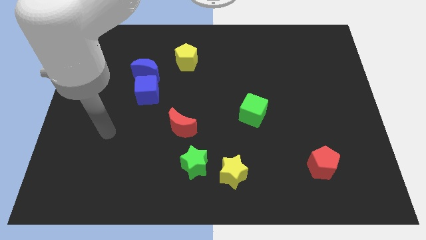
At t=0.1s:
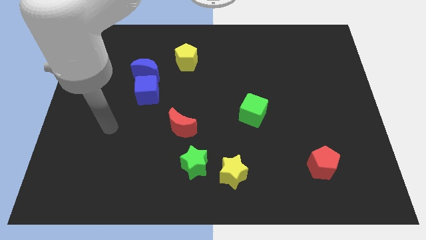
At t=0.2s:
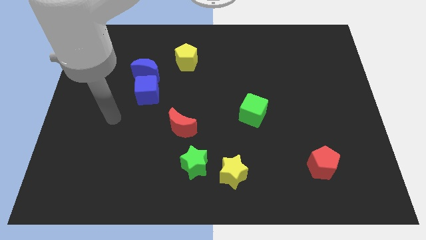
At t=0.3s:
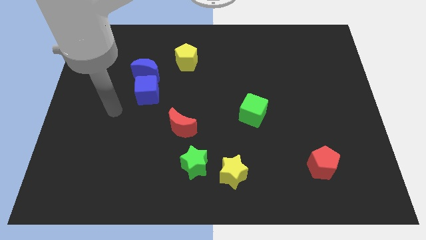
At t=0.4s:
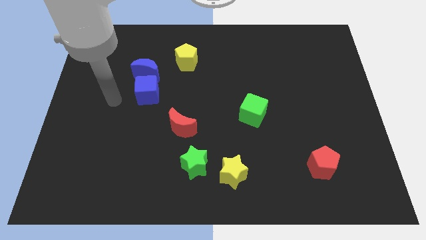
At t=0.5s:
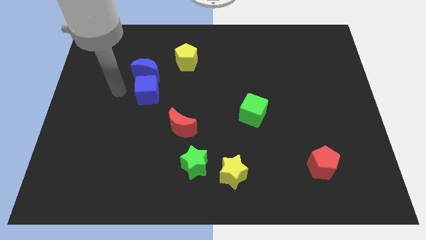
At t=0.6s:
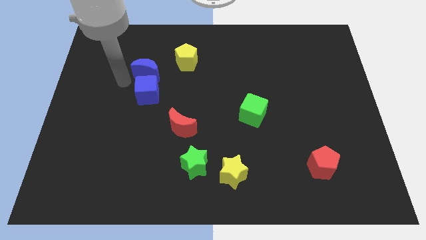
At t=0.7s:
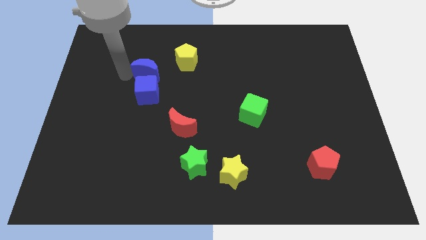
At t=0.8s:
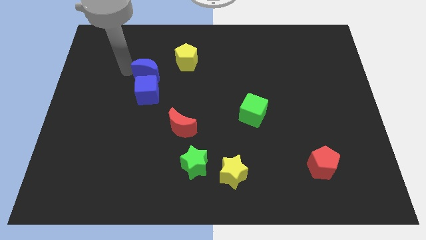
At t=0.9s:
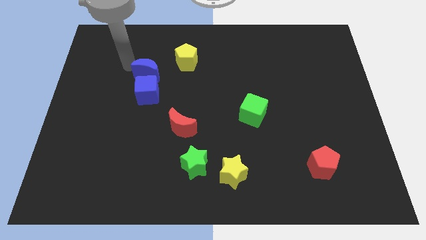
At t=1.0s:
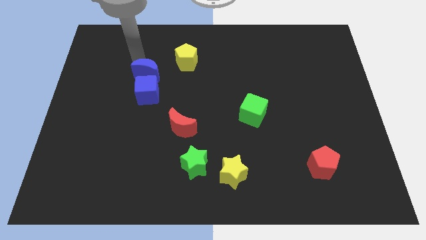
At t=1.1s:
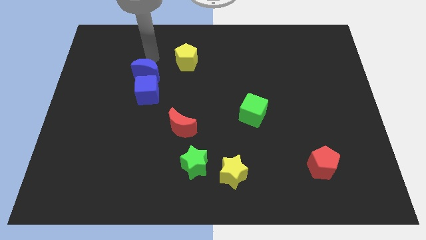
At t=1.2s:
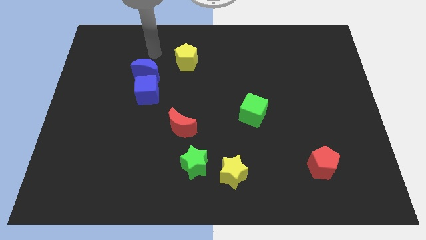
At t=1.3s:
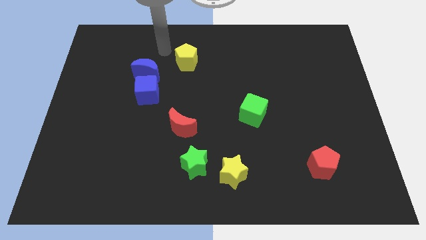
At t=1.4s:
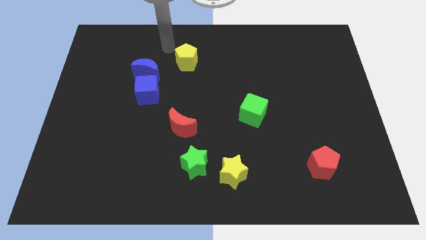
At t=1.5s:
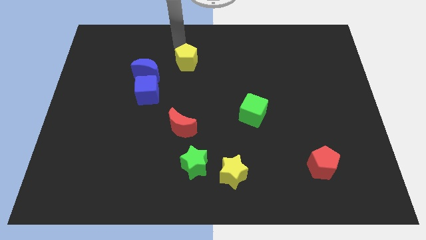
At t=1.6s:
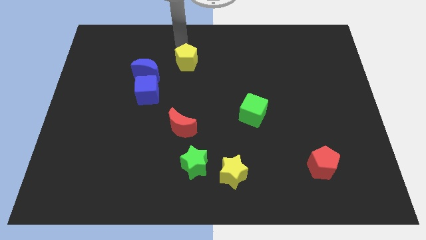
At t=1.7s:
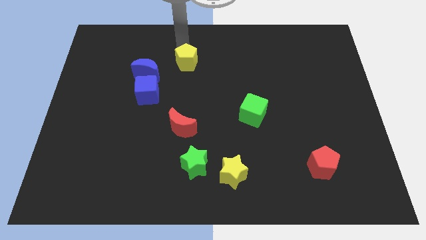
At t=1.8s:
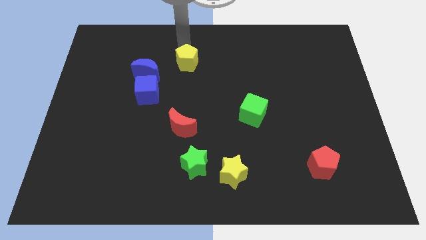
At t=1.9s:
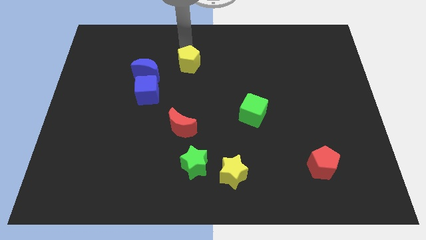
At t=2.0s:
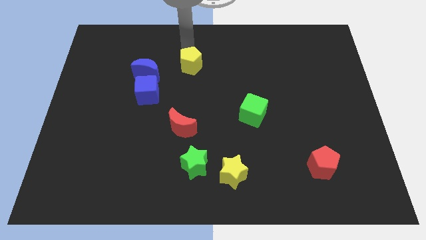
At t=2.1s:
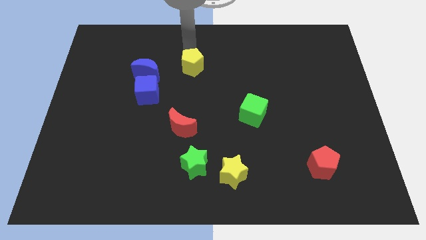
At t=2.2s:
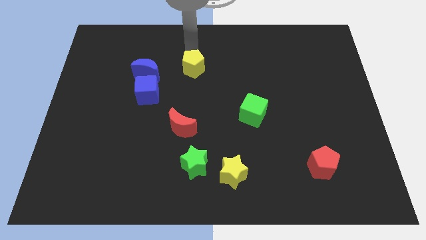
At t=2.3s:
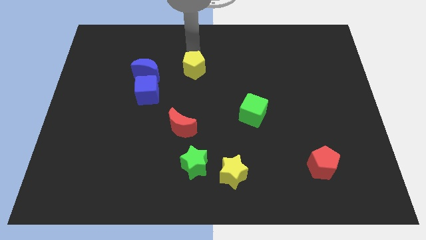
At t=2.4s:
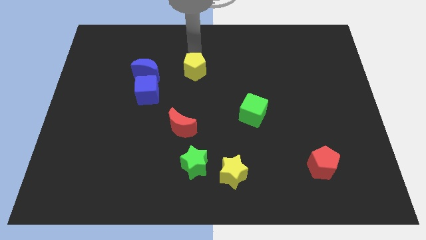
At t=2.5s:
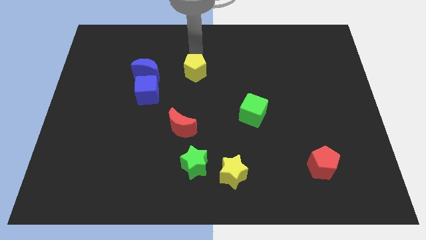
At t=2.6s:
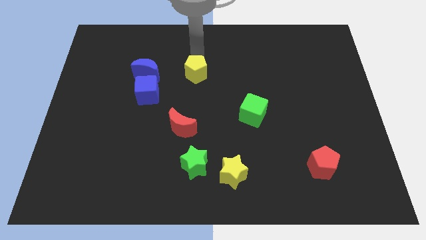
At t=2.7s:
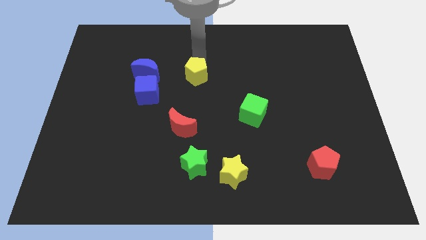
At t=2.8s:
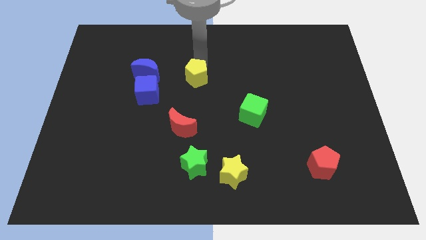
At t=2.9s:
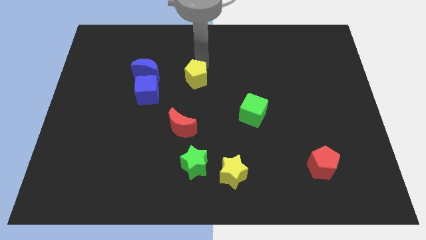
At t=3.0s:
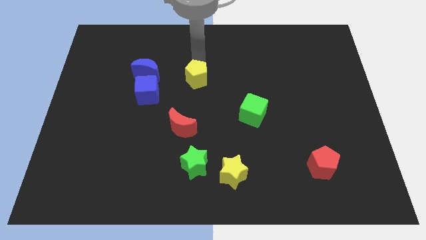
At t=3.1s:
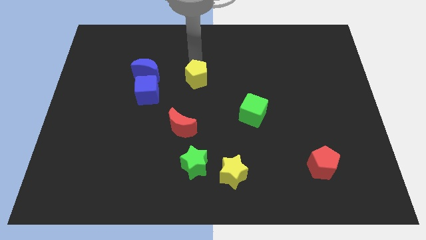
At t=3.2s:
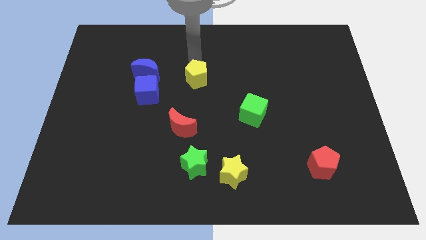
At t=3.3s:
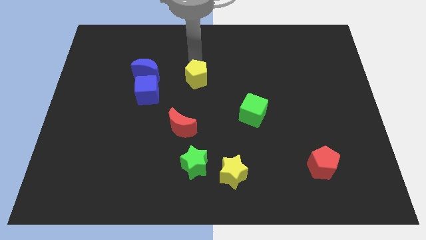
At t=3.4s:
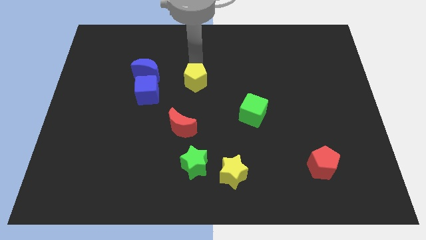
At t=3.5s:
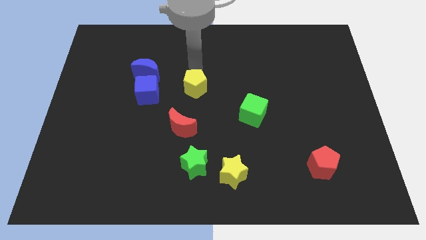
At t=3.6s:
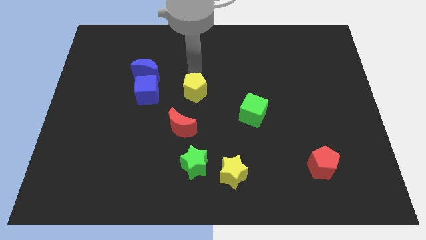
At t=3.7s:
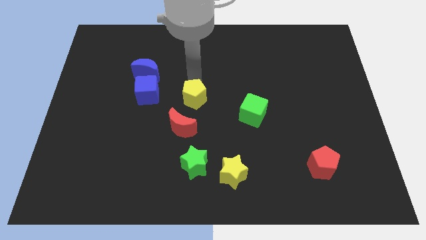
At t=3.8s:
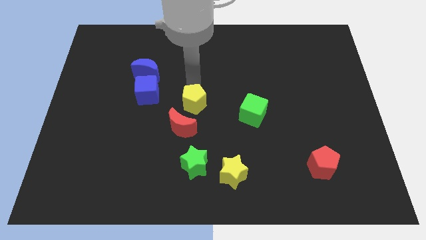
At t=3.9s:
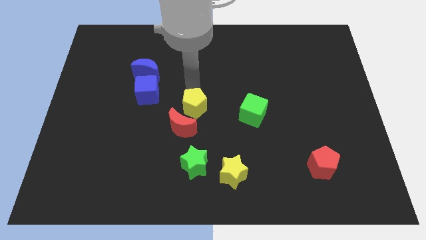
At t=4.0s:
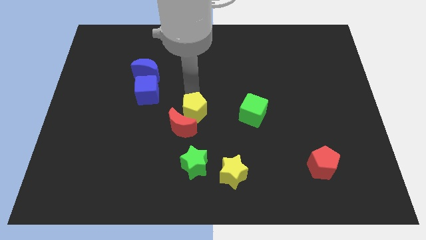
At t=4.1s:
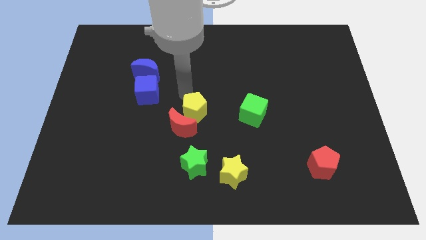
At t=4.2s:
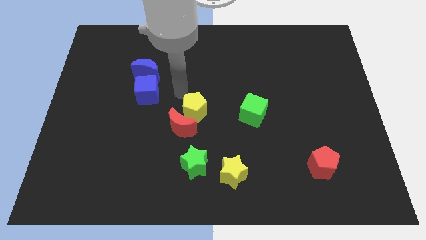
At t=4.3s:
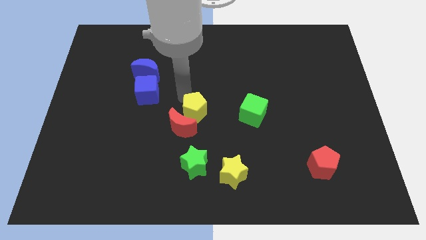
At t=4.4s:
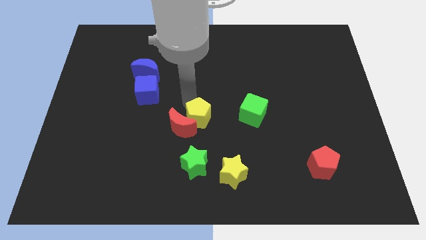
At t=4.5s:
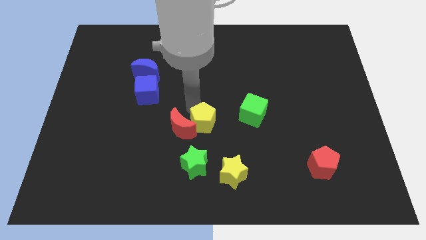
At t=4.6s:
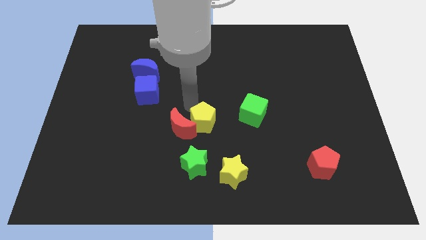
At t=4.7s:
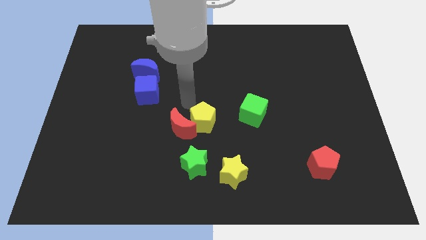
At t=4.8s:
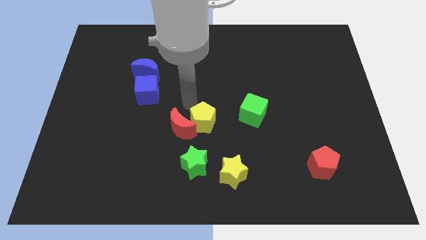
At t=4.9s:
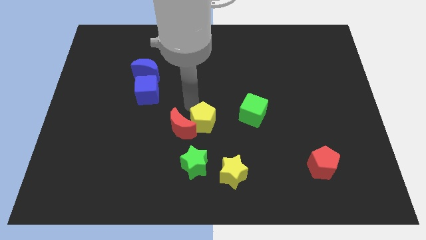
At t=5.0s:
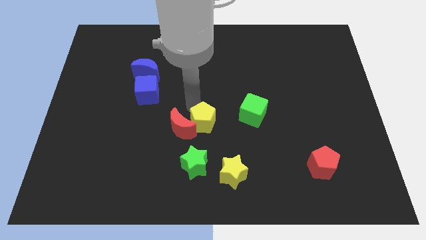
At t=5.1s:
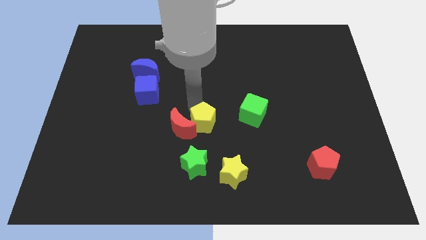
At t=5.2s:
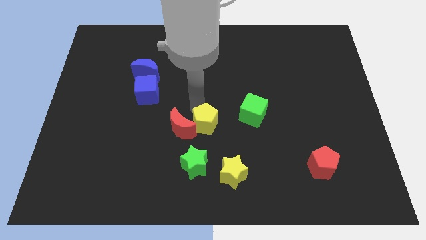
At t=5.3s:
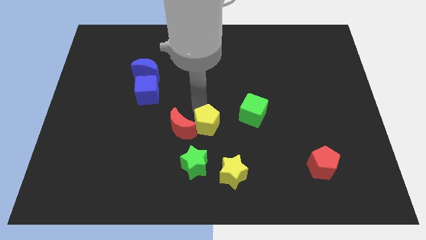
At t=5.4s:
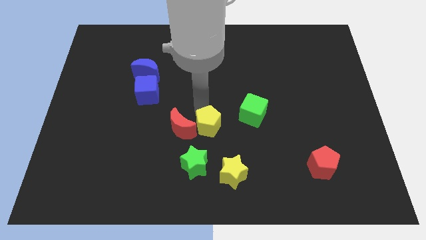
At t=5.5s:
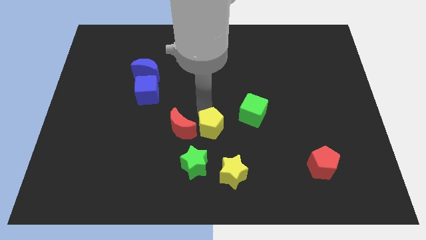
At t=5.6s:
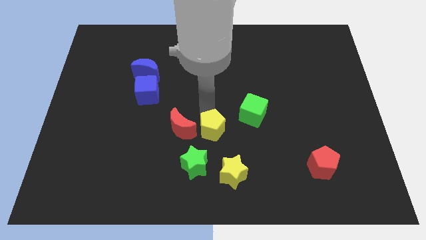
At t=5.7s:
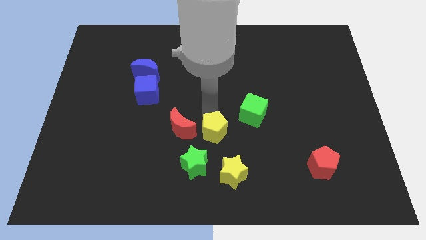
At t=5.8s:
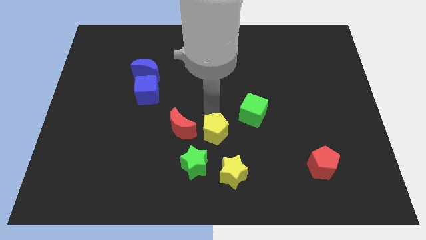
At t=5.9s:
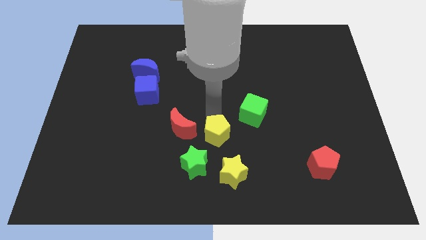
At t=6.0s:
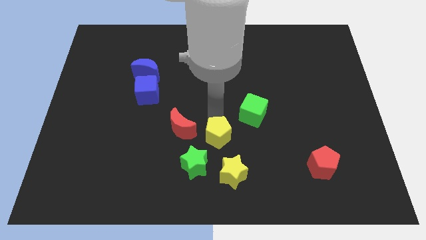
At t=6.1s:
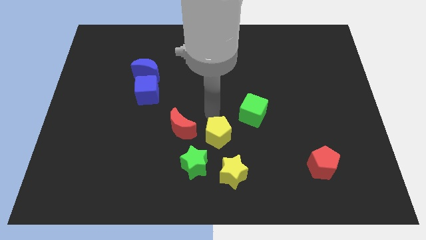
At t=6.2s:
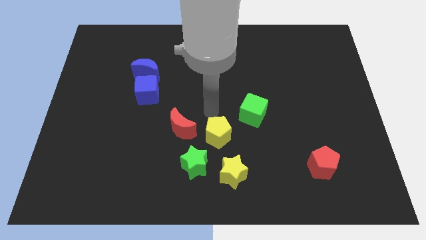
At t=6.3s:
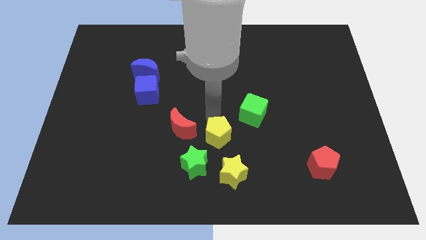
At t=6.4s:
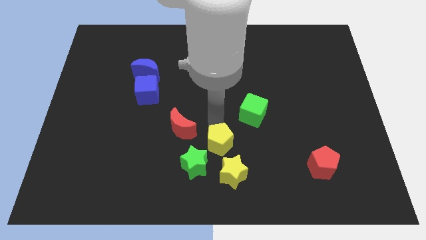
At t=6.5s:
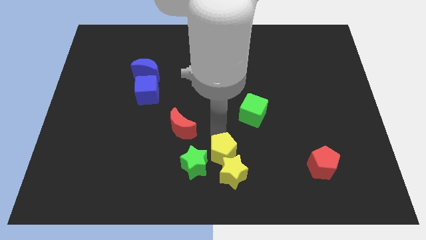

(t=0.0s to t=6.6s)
push the yellow pentagon towards the yellow star
